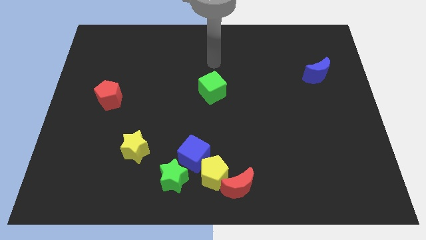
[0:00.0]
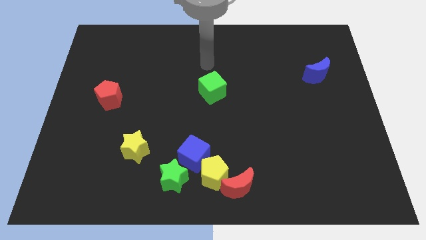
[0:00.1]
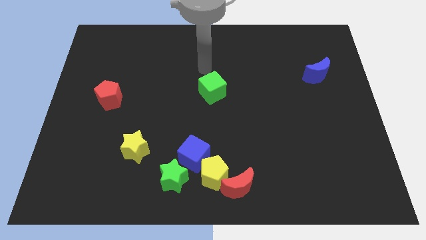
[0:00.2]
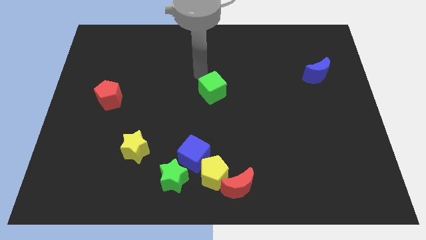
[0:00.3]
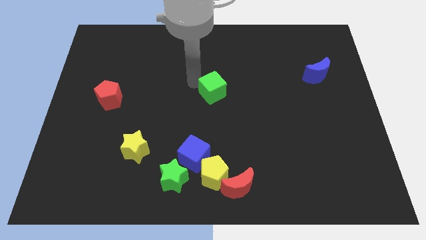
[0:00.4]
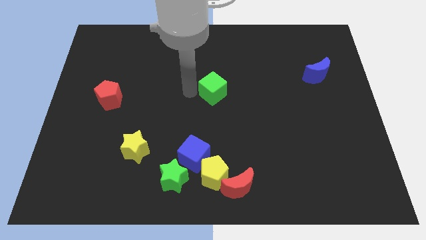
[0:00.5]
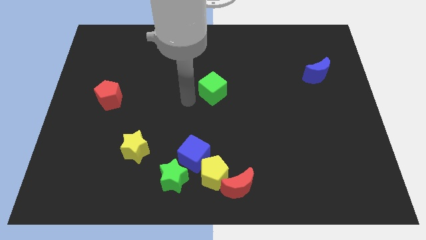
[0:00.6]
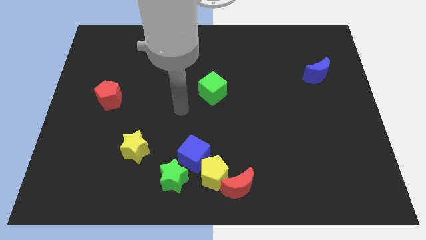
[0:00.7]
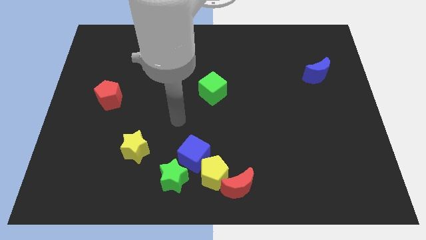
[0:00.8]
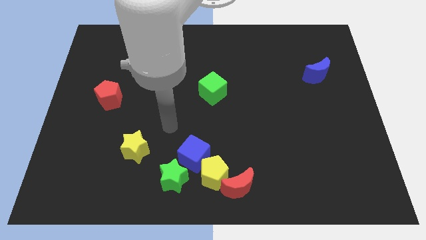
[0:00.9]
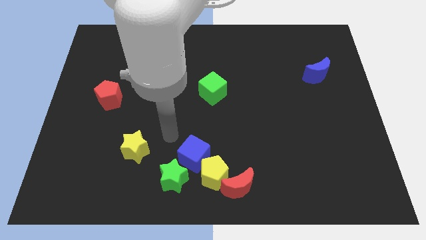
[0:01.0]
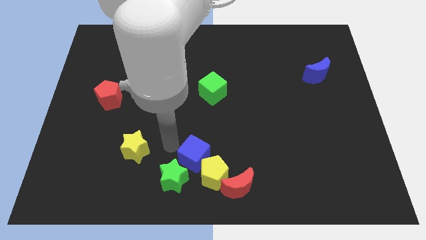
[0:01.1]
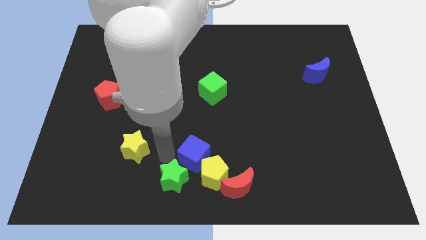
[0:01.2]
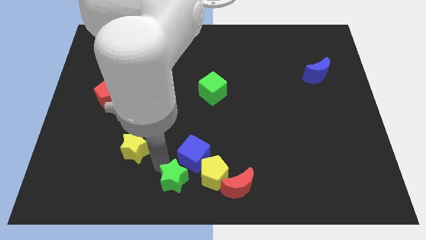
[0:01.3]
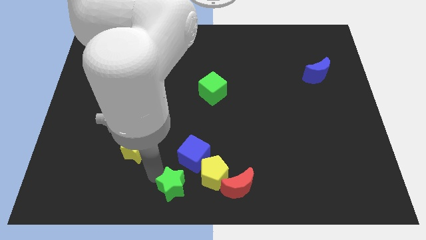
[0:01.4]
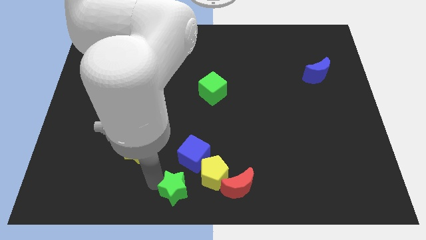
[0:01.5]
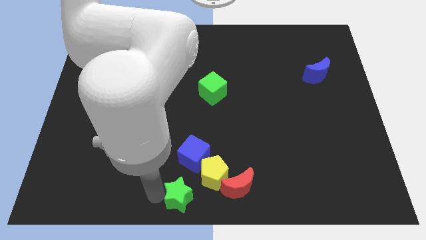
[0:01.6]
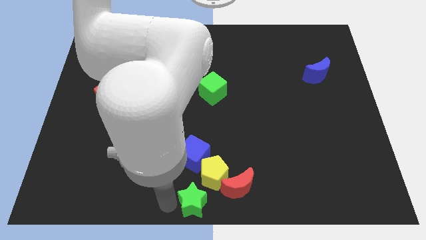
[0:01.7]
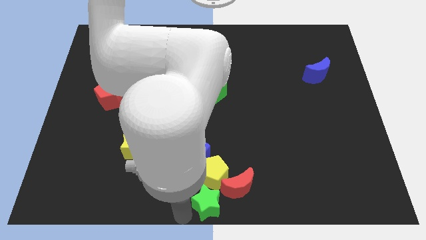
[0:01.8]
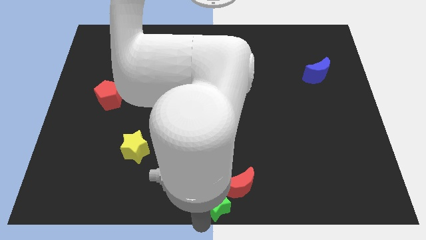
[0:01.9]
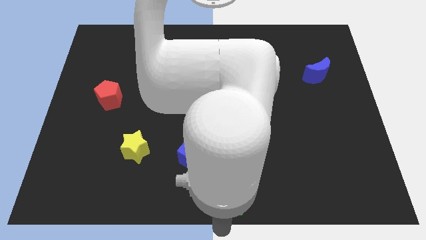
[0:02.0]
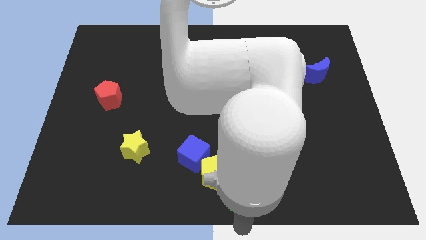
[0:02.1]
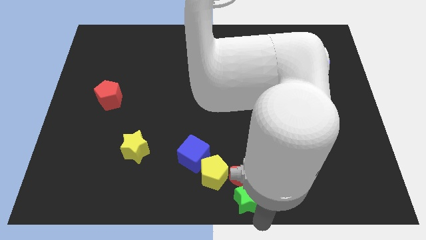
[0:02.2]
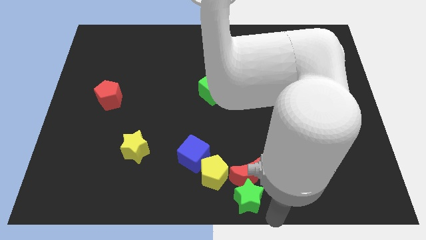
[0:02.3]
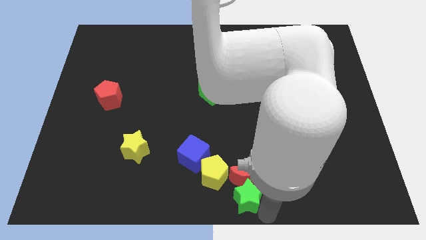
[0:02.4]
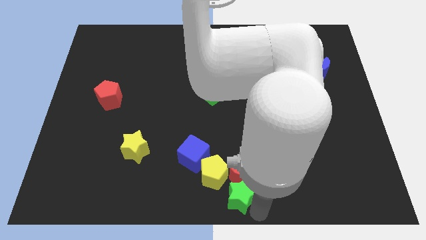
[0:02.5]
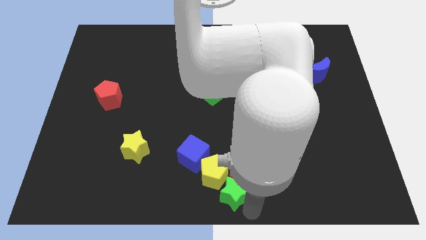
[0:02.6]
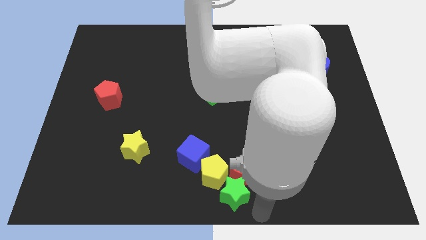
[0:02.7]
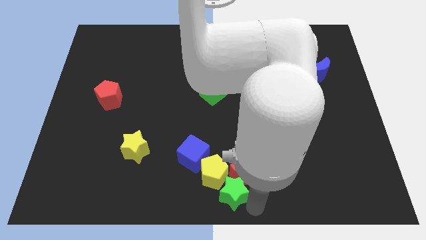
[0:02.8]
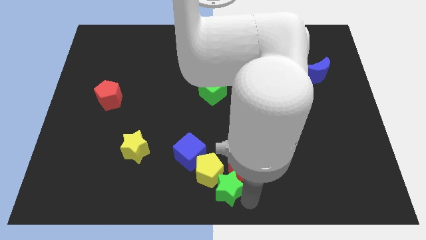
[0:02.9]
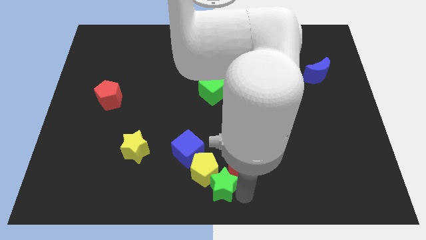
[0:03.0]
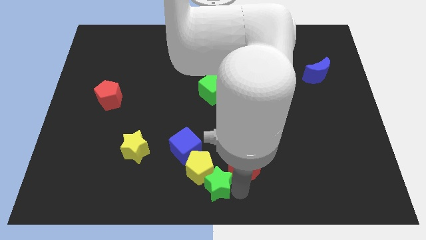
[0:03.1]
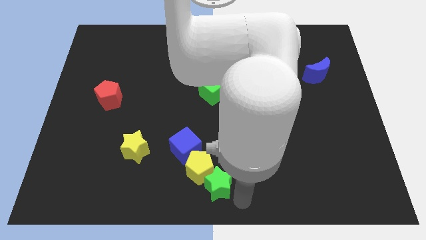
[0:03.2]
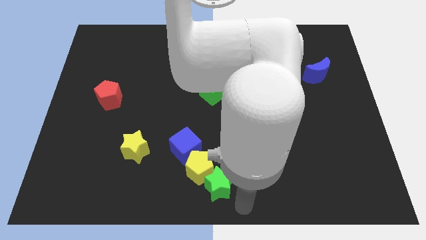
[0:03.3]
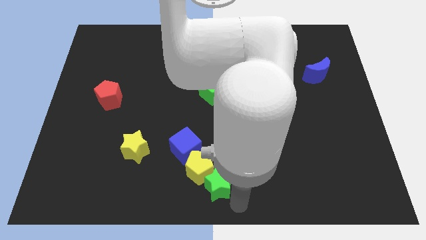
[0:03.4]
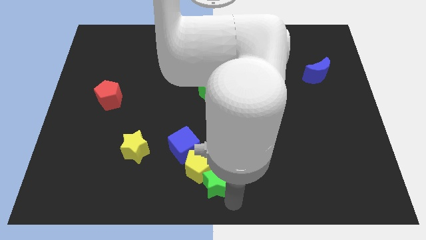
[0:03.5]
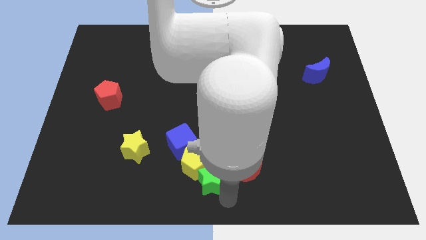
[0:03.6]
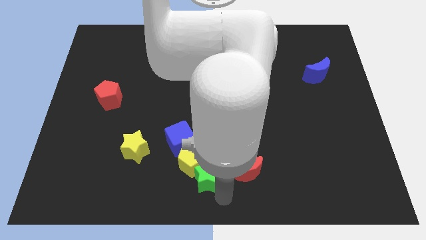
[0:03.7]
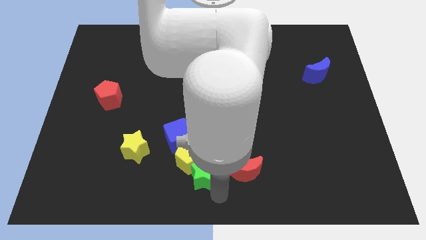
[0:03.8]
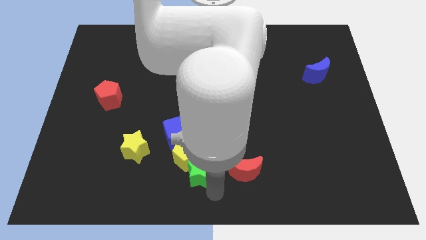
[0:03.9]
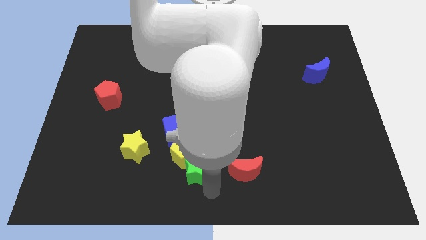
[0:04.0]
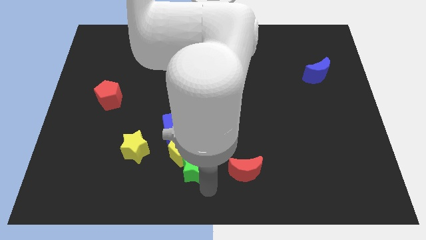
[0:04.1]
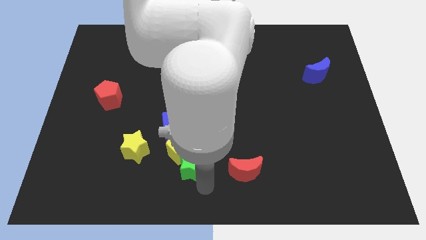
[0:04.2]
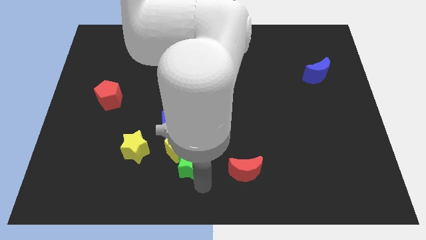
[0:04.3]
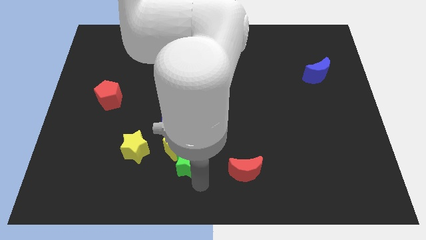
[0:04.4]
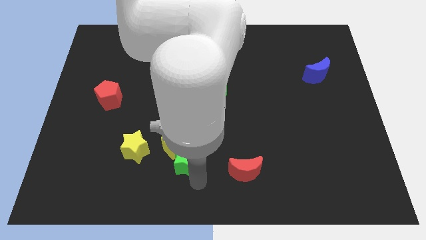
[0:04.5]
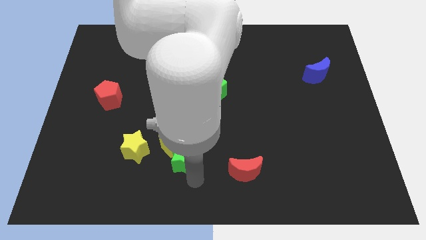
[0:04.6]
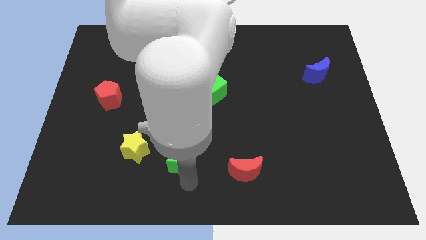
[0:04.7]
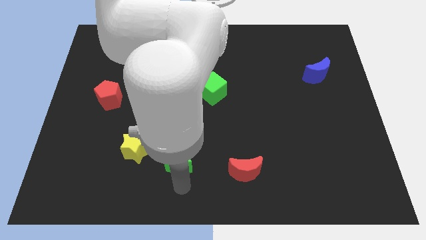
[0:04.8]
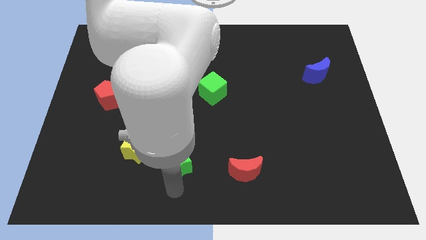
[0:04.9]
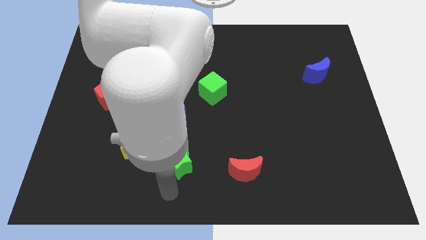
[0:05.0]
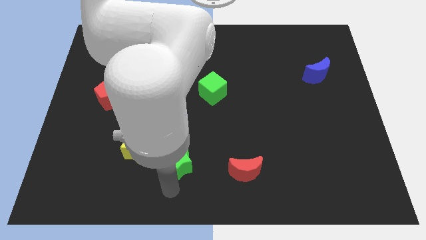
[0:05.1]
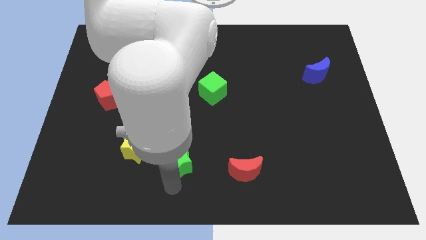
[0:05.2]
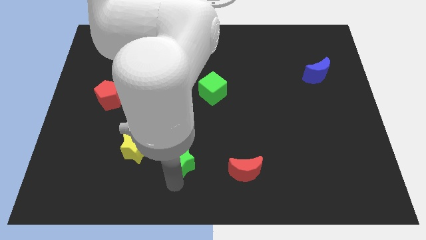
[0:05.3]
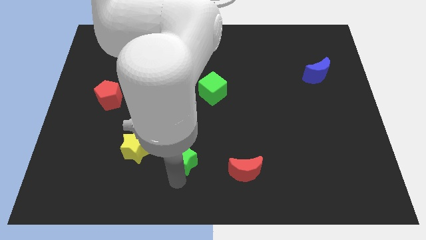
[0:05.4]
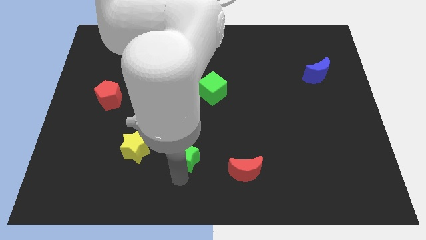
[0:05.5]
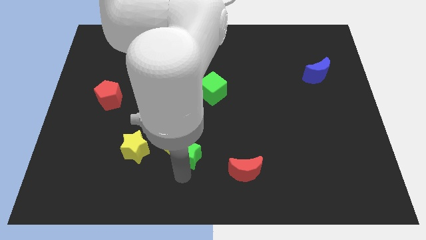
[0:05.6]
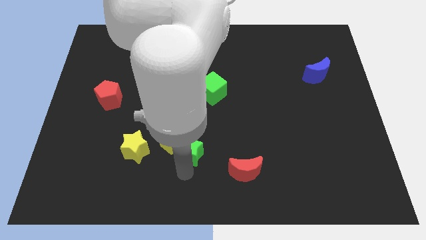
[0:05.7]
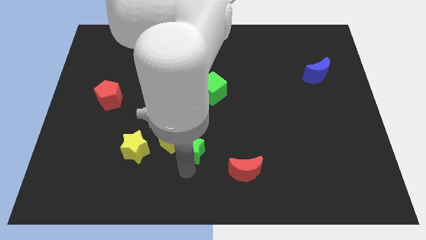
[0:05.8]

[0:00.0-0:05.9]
push the green star upwards and right diagonally a bit

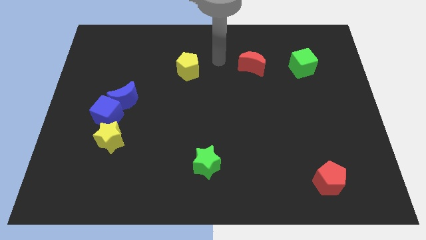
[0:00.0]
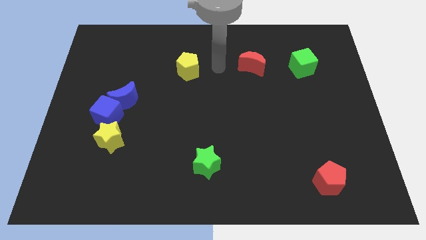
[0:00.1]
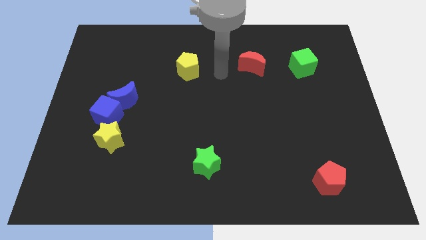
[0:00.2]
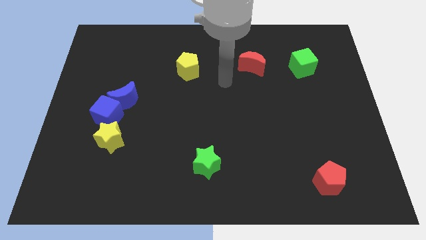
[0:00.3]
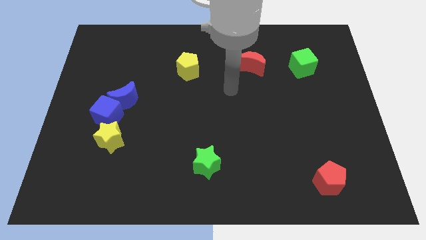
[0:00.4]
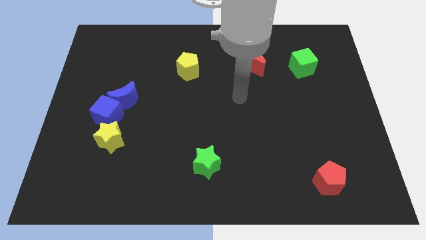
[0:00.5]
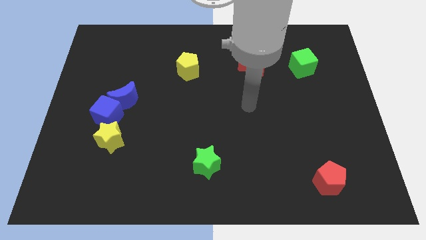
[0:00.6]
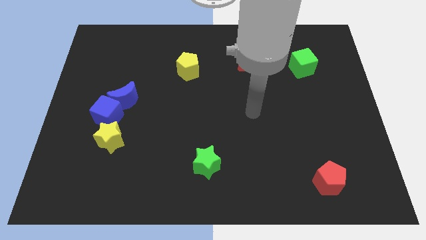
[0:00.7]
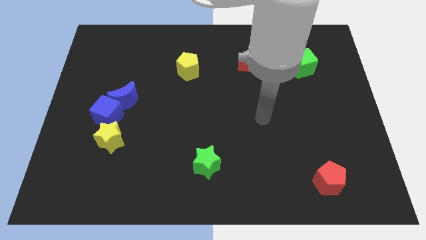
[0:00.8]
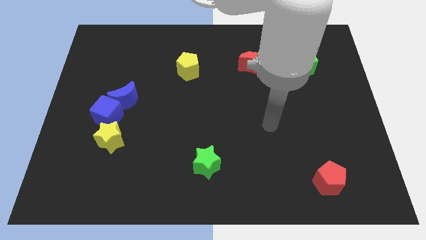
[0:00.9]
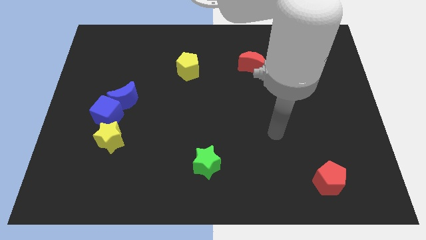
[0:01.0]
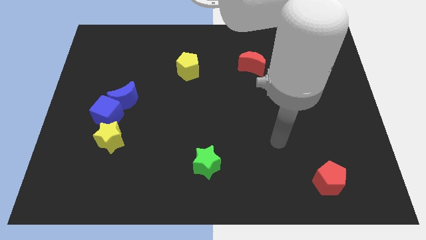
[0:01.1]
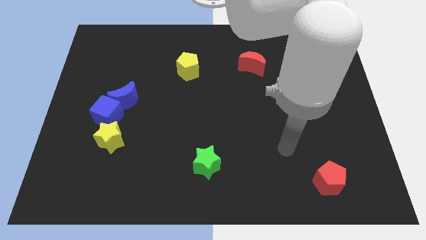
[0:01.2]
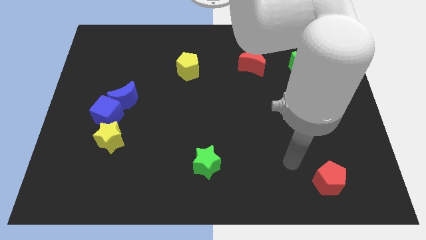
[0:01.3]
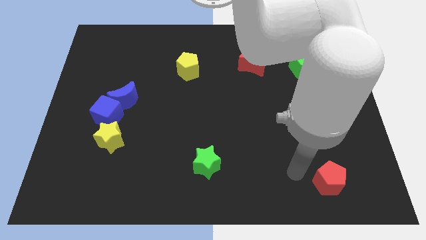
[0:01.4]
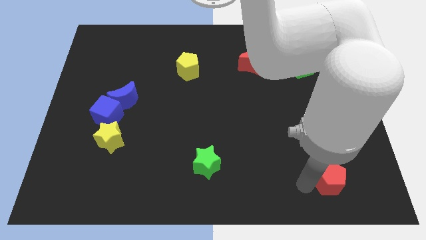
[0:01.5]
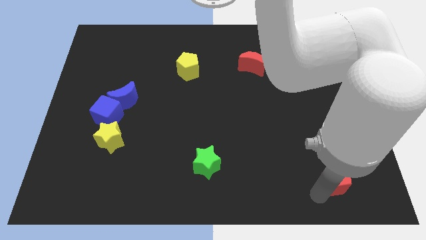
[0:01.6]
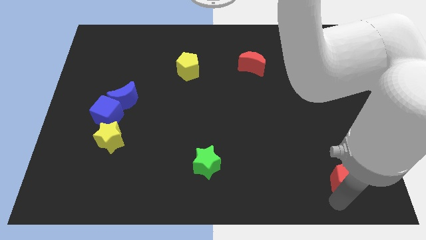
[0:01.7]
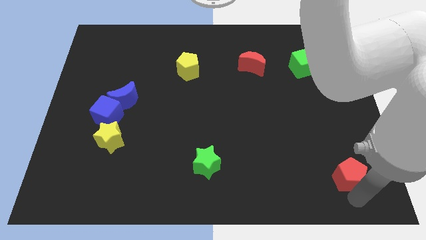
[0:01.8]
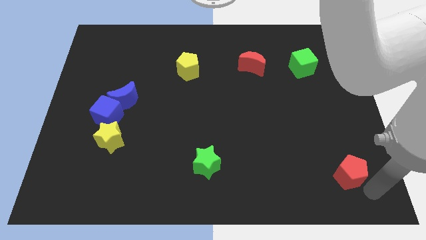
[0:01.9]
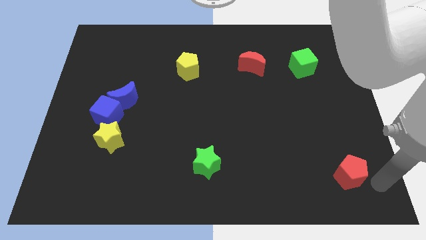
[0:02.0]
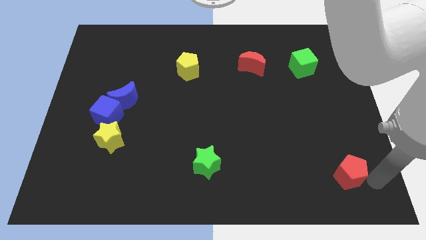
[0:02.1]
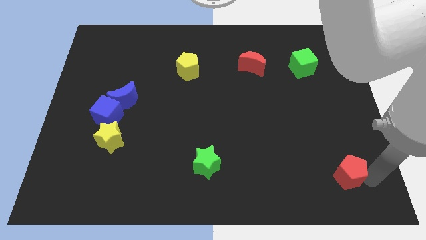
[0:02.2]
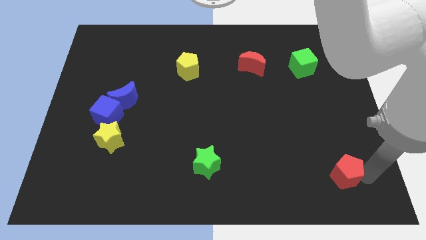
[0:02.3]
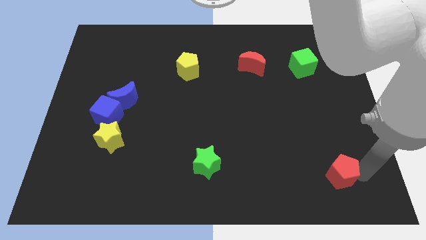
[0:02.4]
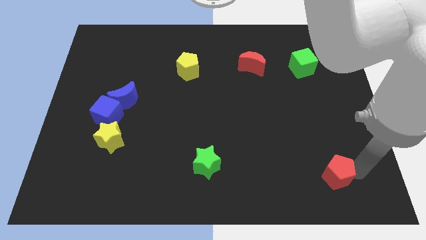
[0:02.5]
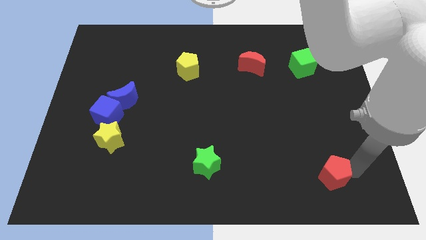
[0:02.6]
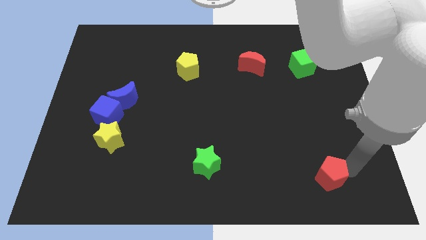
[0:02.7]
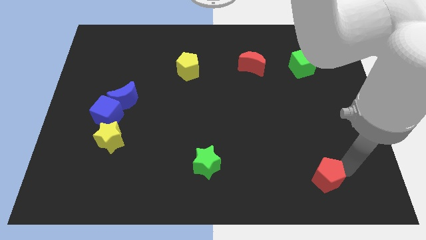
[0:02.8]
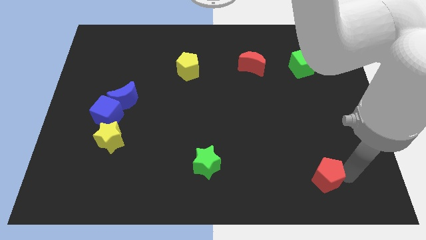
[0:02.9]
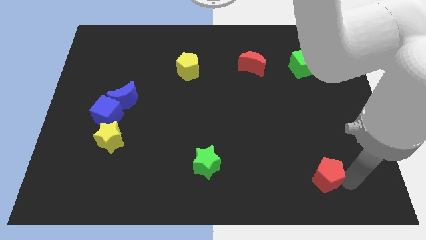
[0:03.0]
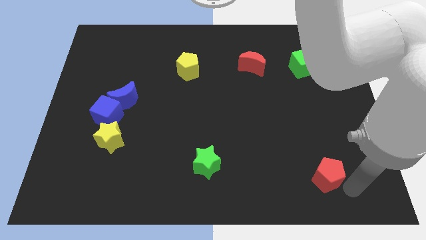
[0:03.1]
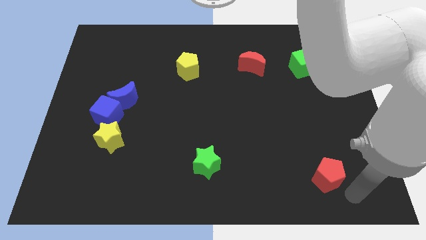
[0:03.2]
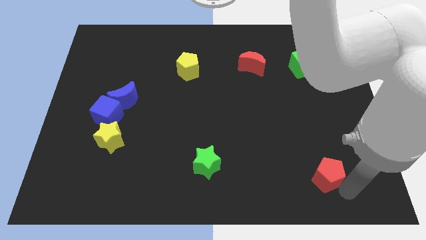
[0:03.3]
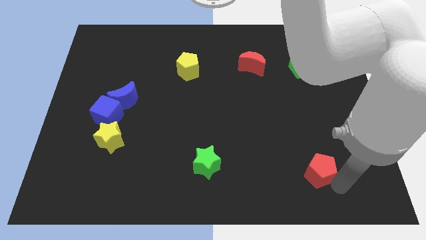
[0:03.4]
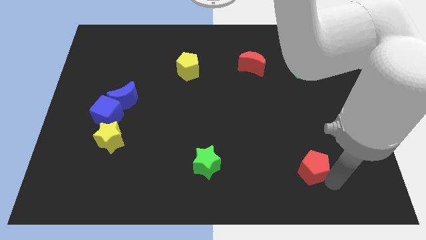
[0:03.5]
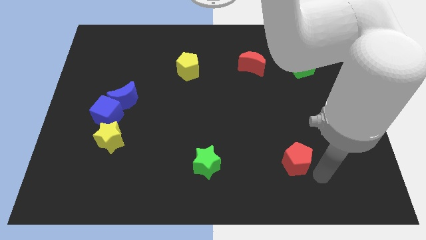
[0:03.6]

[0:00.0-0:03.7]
move the red pentagon upwards and to the left diagonally a little bit
